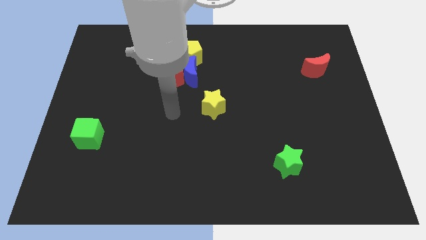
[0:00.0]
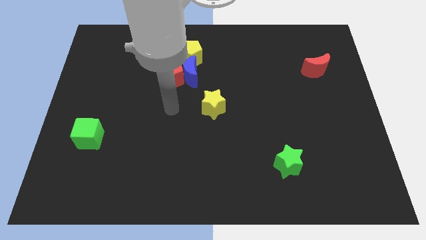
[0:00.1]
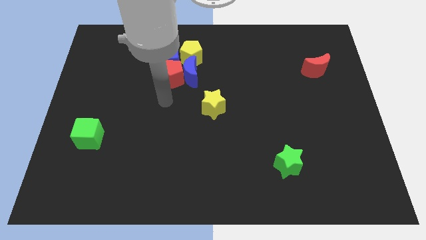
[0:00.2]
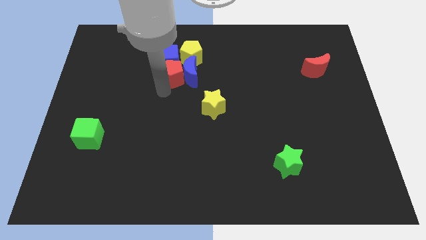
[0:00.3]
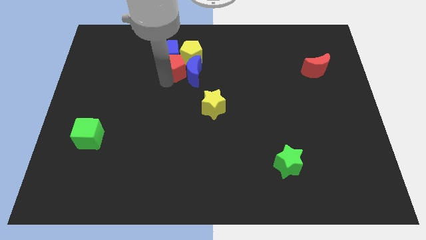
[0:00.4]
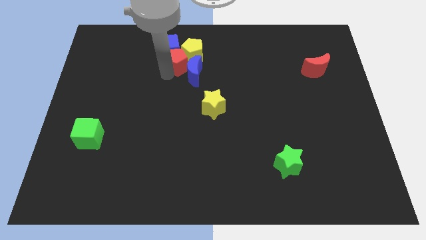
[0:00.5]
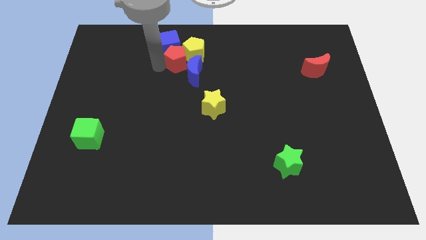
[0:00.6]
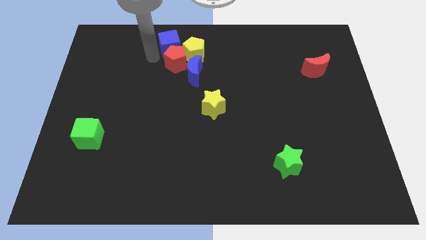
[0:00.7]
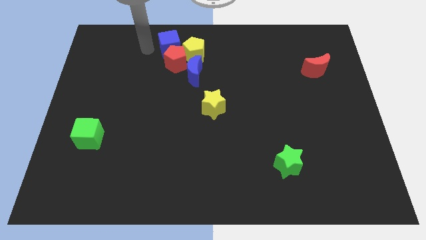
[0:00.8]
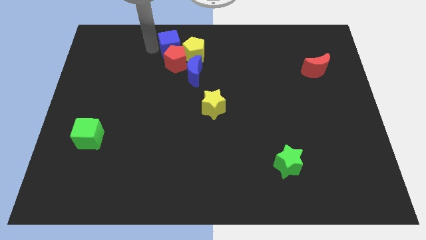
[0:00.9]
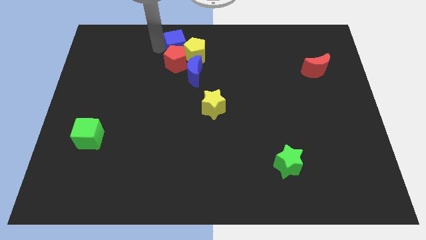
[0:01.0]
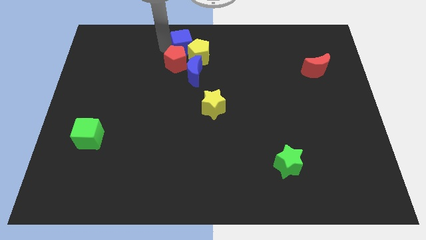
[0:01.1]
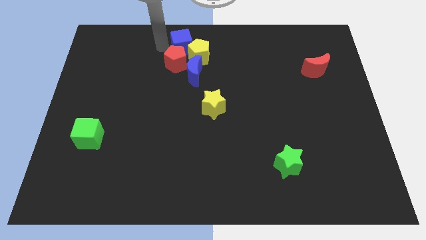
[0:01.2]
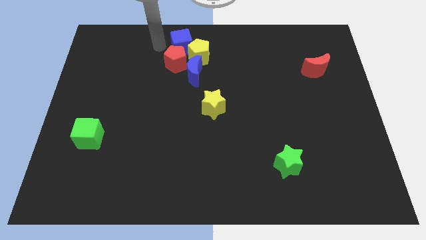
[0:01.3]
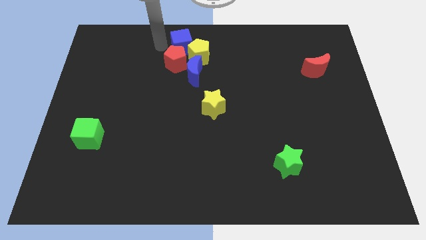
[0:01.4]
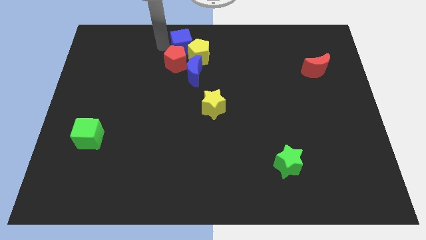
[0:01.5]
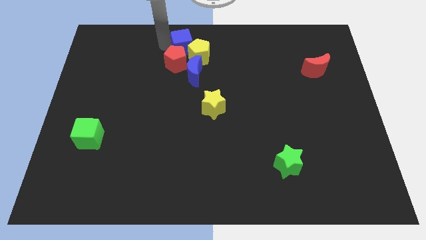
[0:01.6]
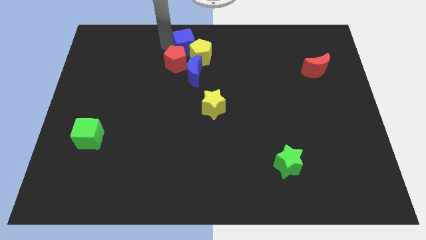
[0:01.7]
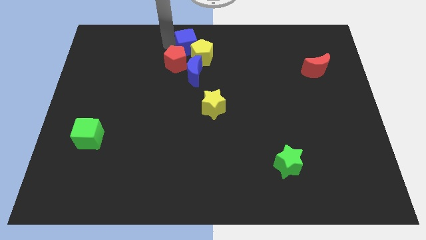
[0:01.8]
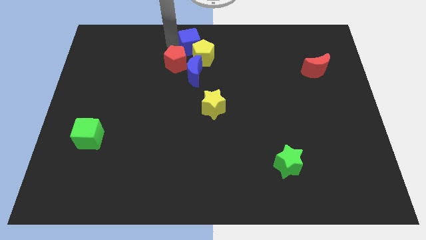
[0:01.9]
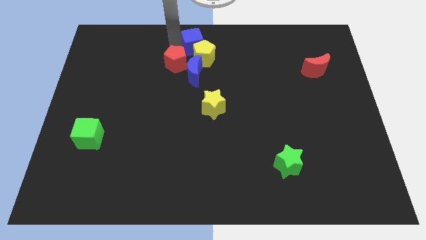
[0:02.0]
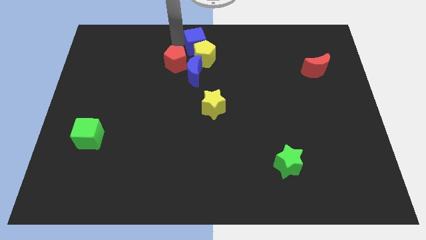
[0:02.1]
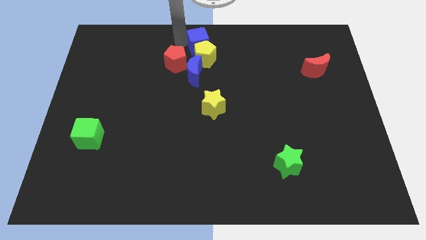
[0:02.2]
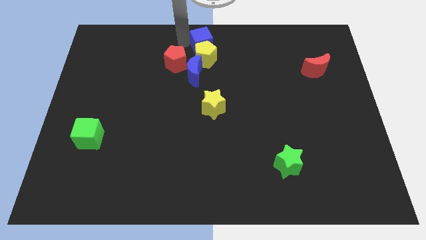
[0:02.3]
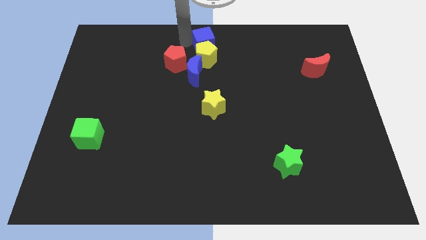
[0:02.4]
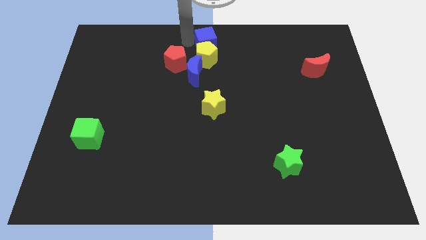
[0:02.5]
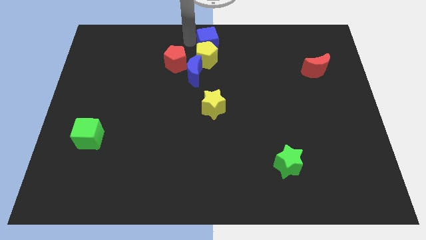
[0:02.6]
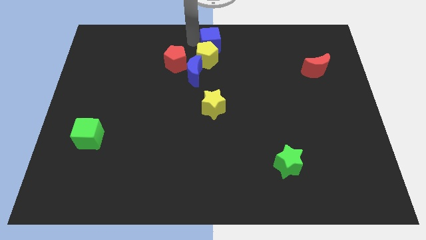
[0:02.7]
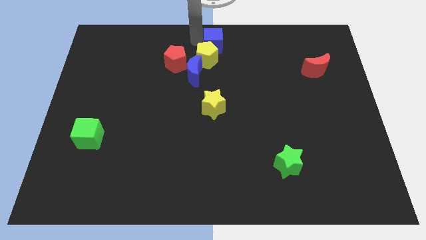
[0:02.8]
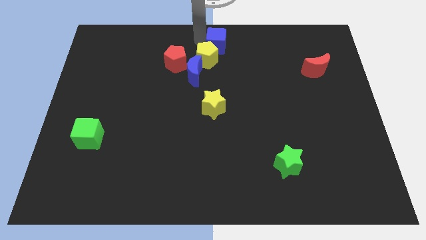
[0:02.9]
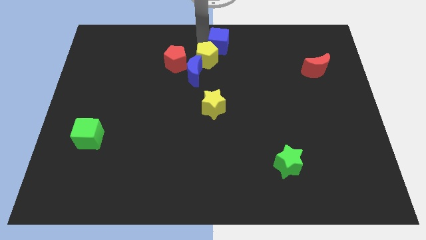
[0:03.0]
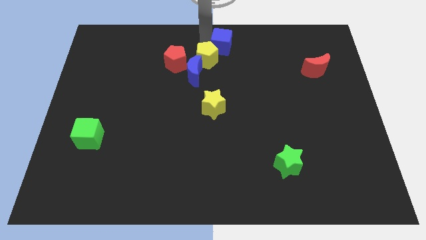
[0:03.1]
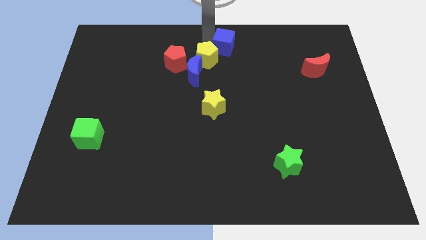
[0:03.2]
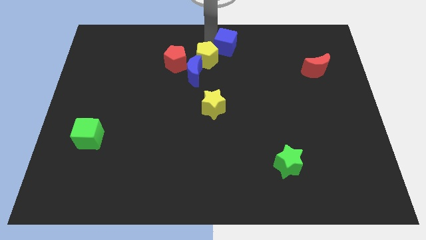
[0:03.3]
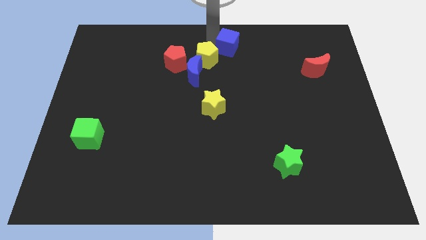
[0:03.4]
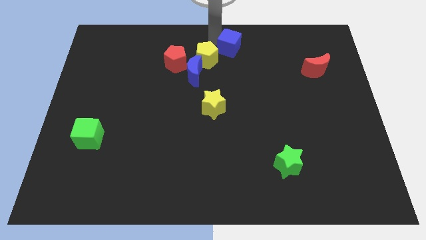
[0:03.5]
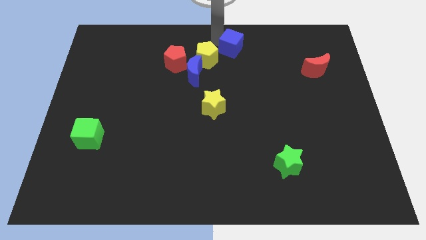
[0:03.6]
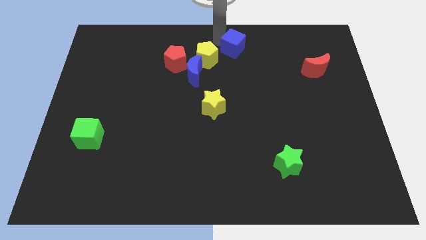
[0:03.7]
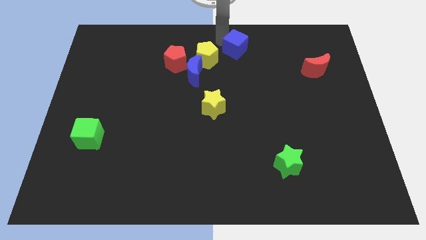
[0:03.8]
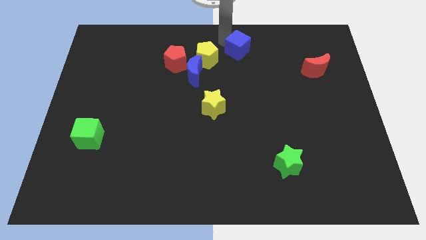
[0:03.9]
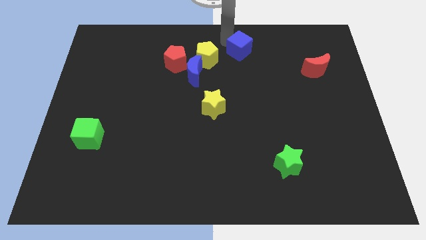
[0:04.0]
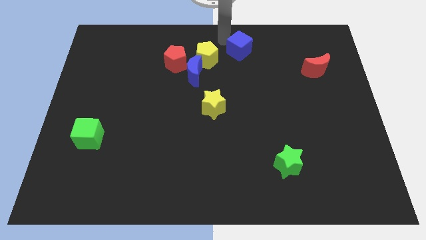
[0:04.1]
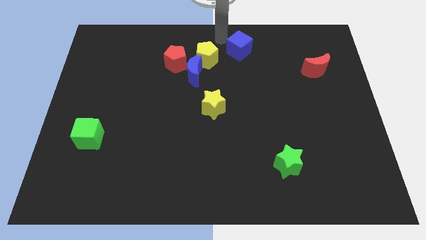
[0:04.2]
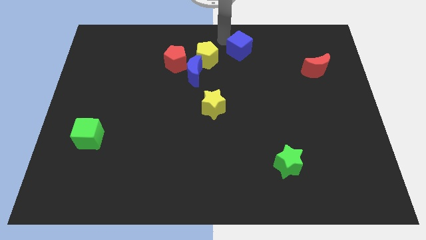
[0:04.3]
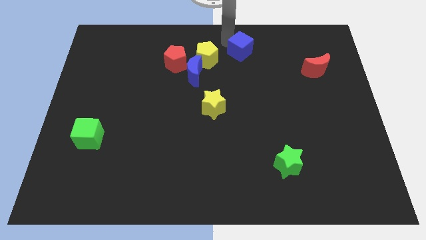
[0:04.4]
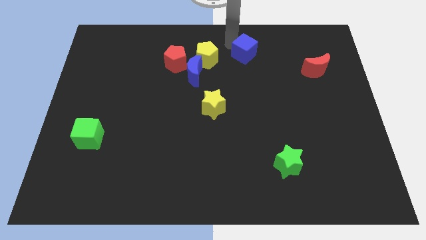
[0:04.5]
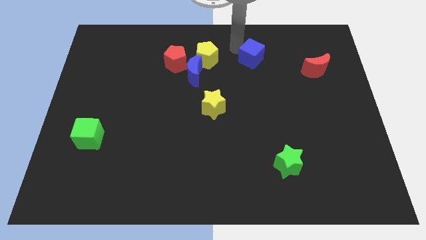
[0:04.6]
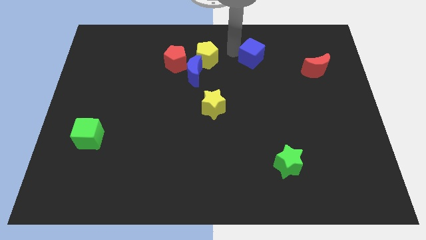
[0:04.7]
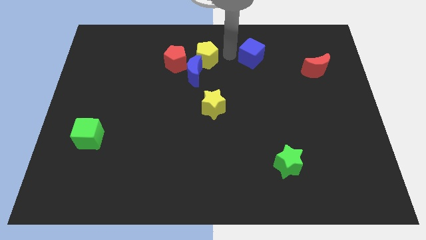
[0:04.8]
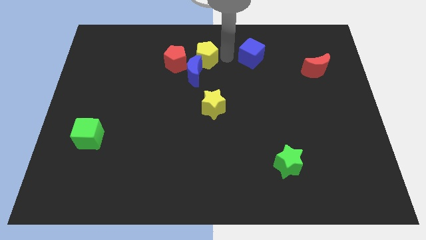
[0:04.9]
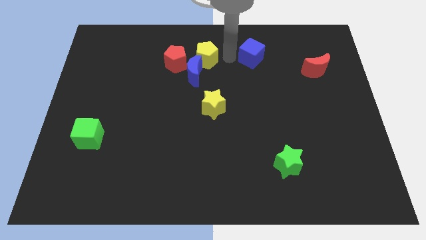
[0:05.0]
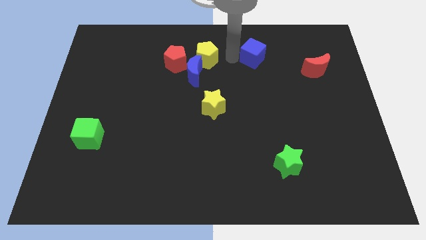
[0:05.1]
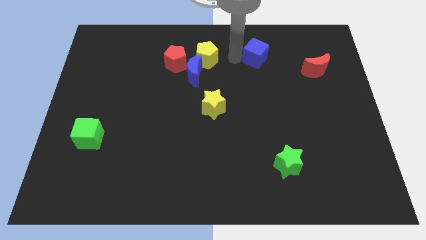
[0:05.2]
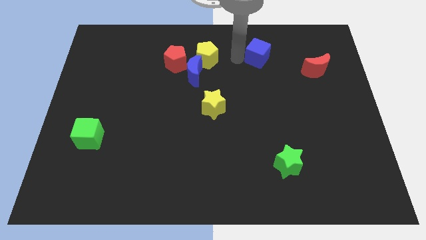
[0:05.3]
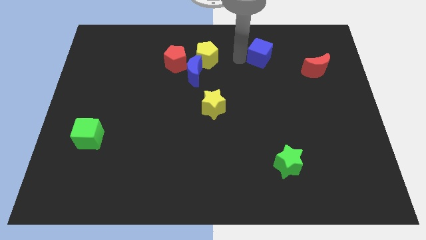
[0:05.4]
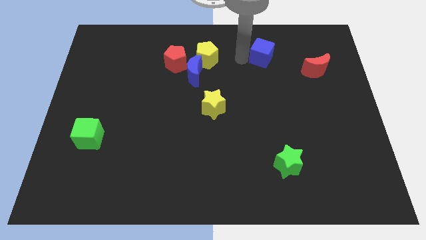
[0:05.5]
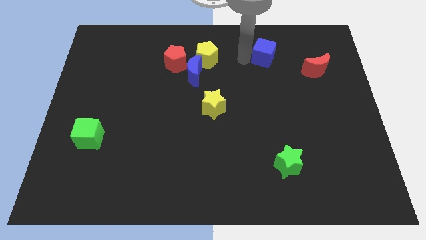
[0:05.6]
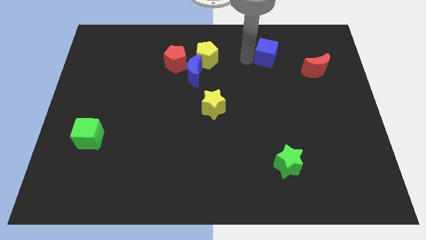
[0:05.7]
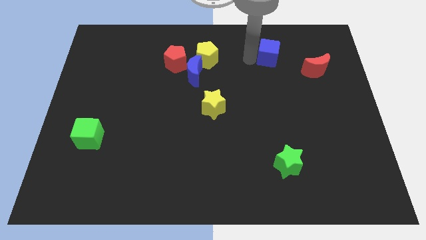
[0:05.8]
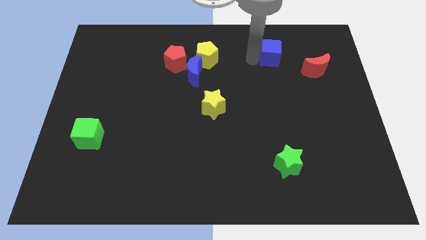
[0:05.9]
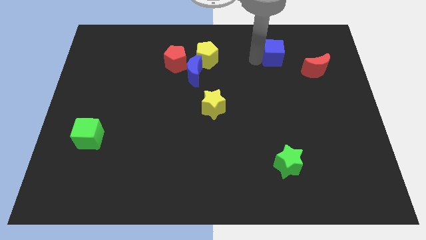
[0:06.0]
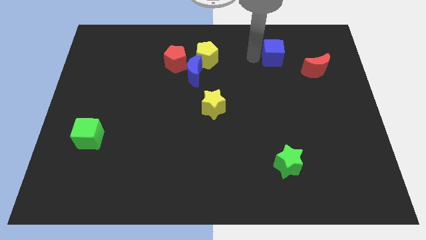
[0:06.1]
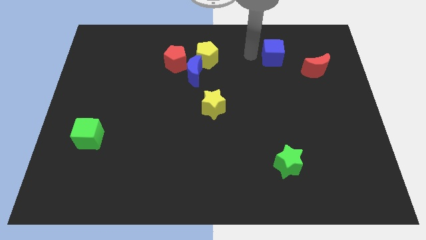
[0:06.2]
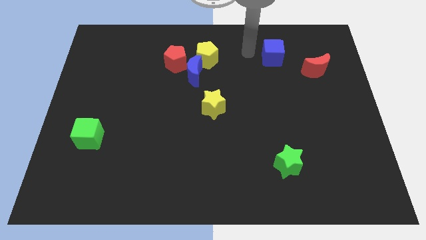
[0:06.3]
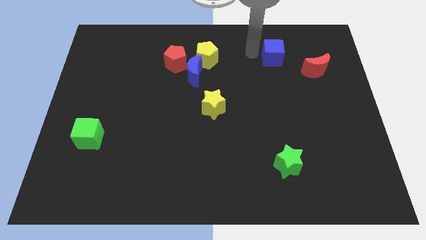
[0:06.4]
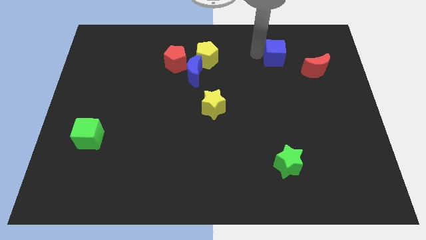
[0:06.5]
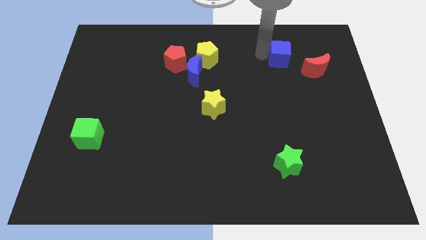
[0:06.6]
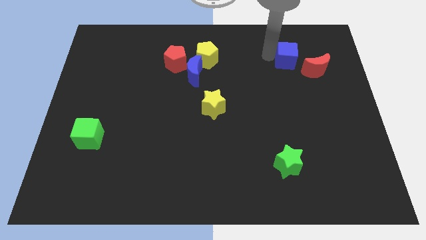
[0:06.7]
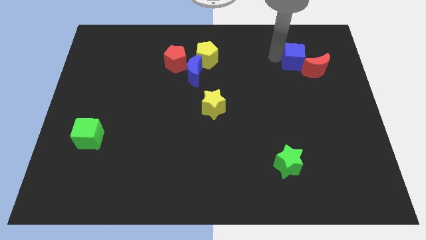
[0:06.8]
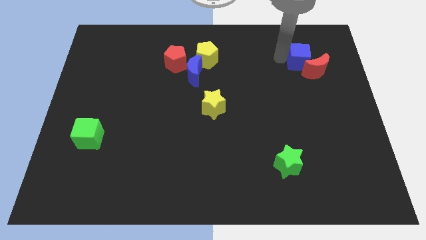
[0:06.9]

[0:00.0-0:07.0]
push the blue cube next to the red moon

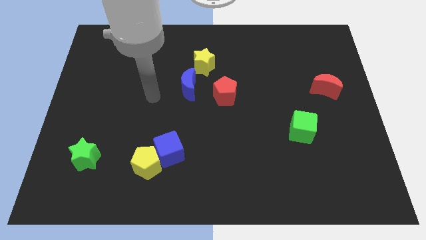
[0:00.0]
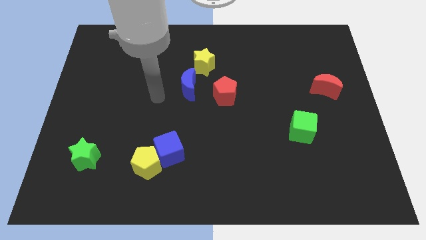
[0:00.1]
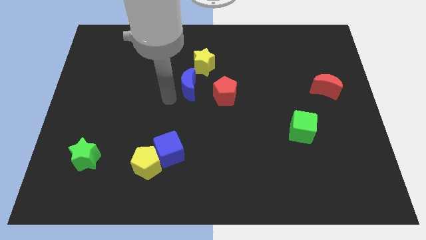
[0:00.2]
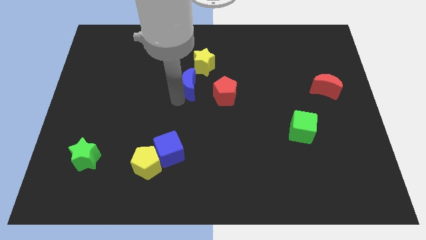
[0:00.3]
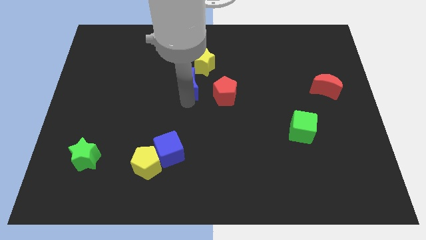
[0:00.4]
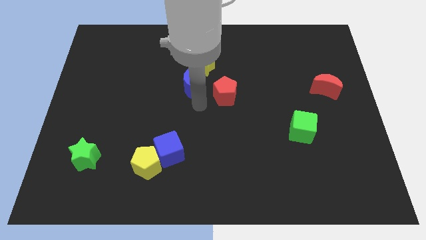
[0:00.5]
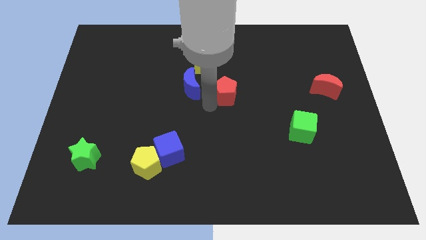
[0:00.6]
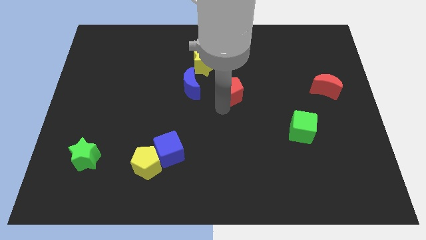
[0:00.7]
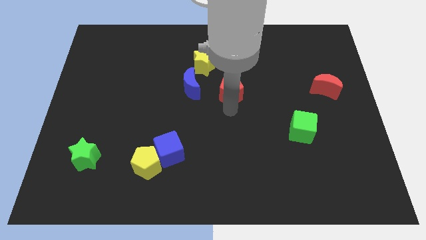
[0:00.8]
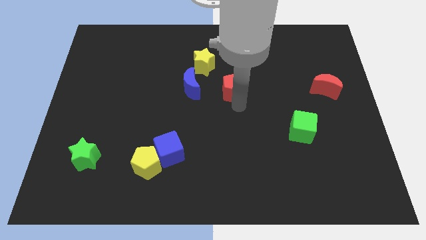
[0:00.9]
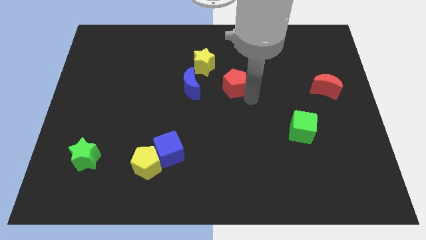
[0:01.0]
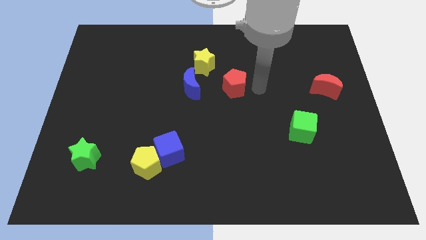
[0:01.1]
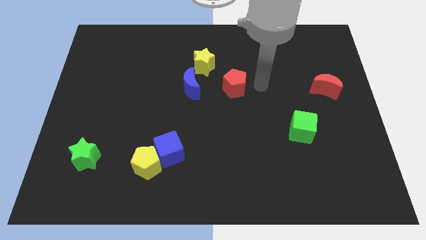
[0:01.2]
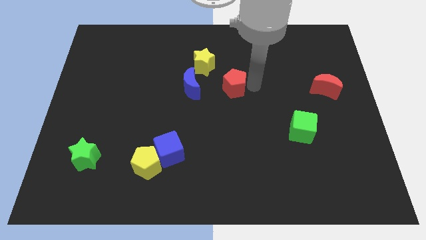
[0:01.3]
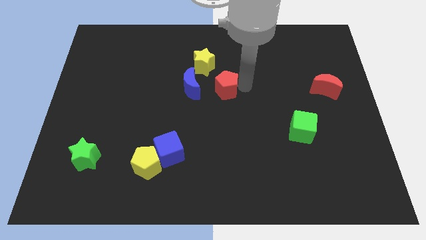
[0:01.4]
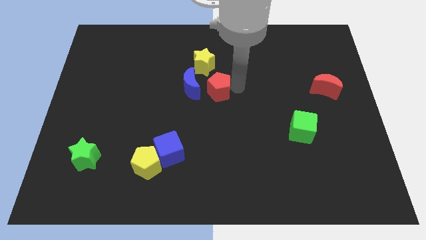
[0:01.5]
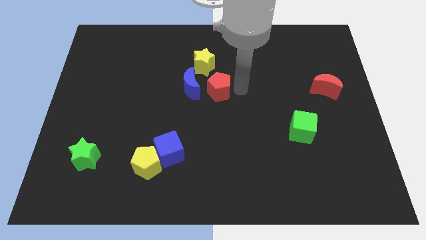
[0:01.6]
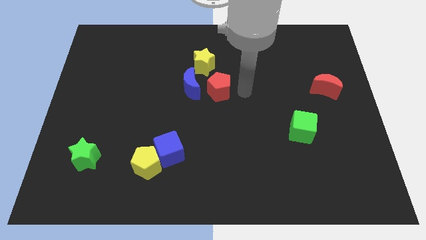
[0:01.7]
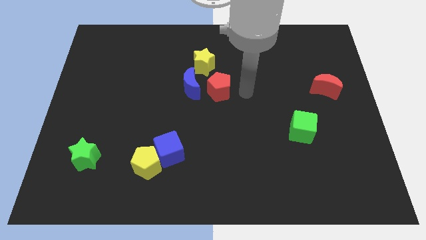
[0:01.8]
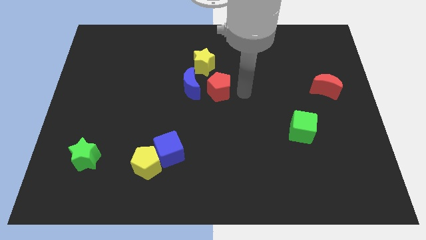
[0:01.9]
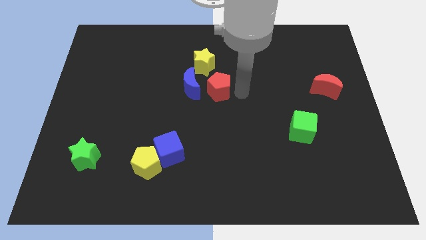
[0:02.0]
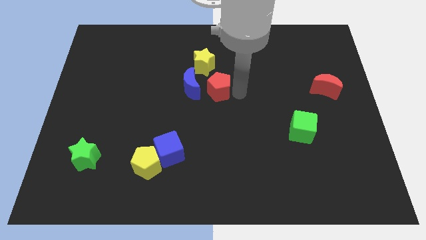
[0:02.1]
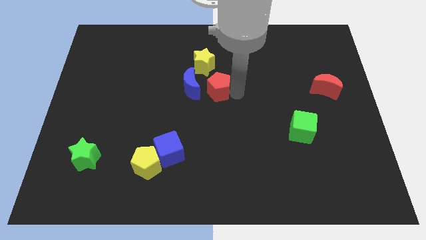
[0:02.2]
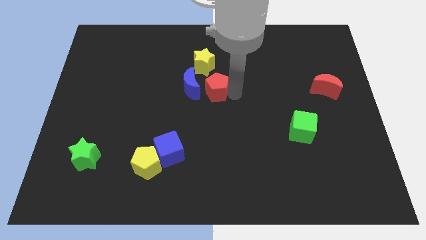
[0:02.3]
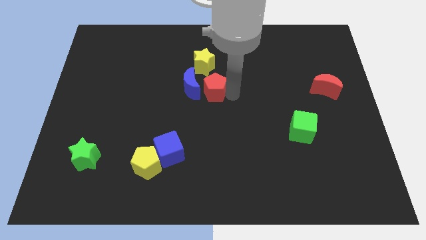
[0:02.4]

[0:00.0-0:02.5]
put the red pentagon to the blue moon
